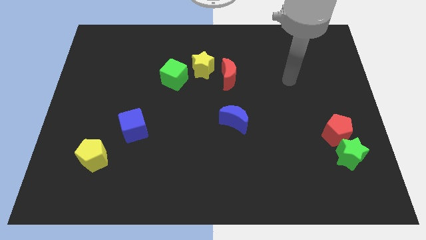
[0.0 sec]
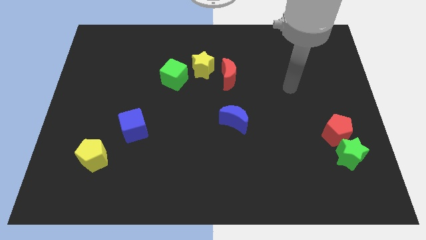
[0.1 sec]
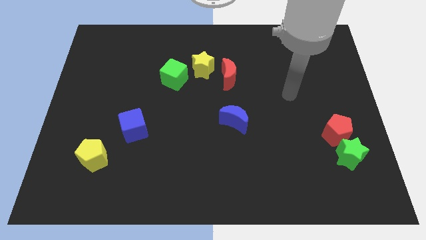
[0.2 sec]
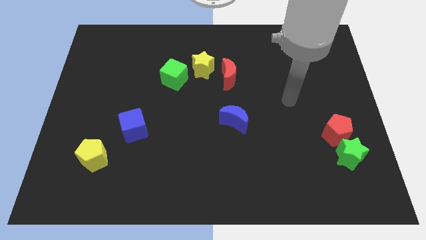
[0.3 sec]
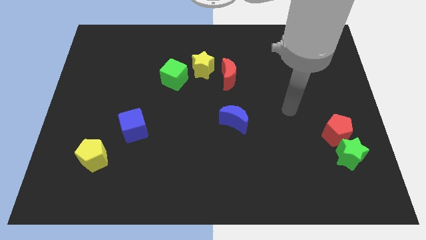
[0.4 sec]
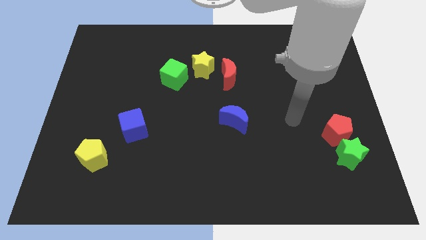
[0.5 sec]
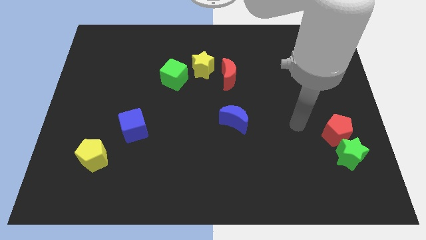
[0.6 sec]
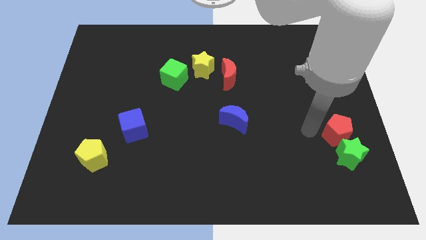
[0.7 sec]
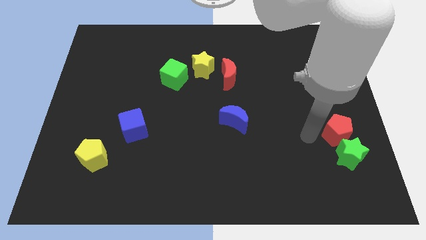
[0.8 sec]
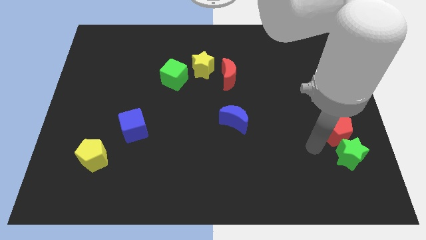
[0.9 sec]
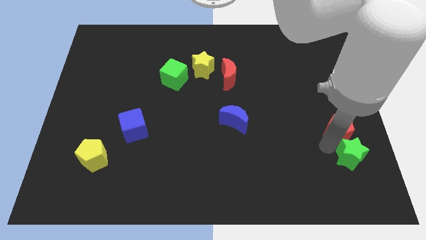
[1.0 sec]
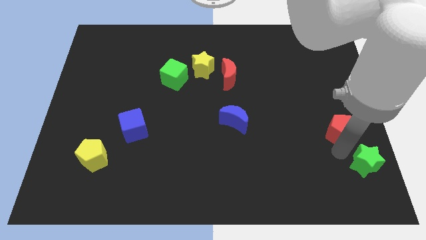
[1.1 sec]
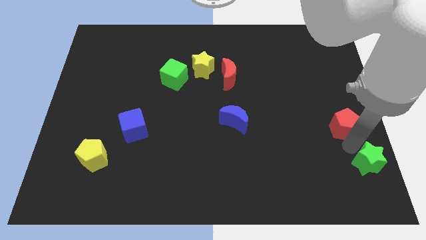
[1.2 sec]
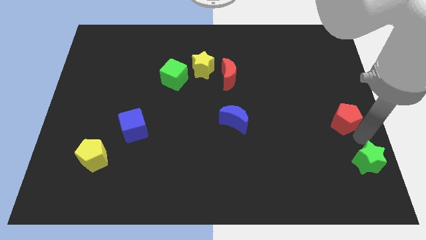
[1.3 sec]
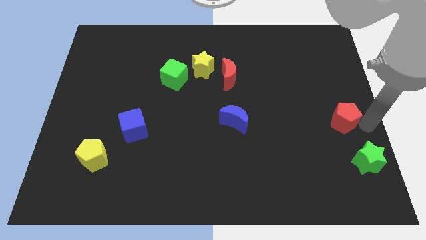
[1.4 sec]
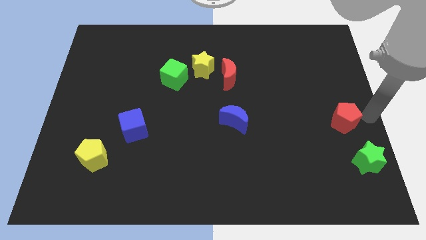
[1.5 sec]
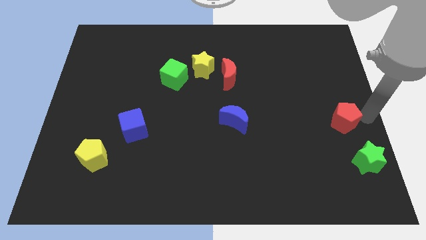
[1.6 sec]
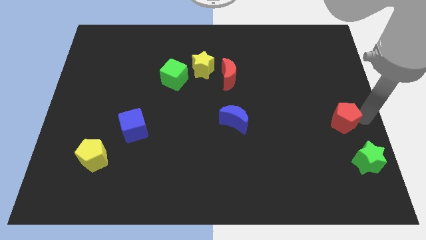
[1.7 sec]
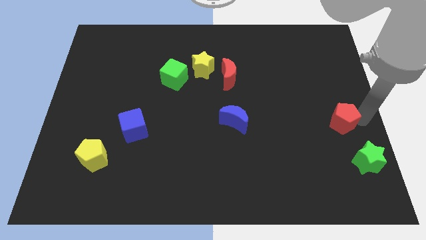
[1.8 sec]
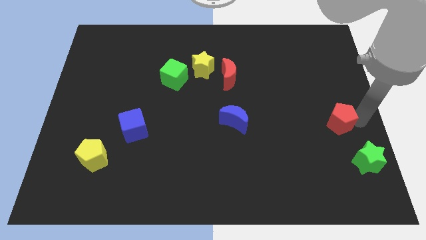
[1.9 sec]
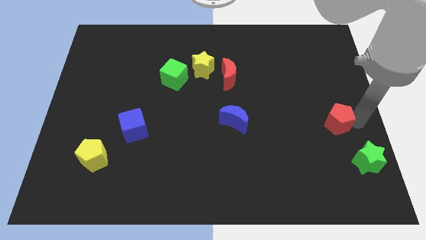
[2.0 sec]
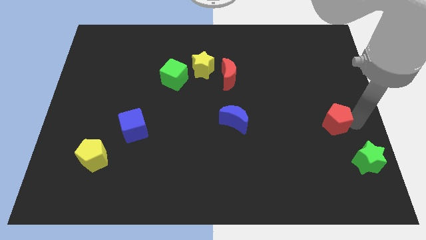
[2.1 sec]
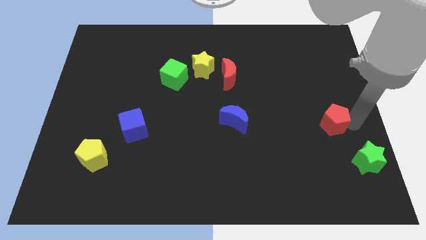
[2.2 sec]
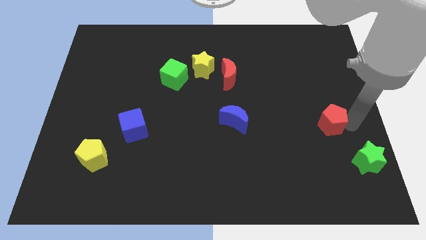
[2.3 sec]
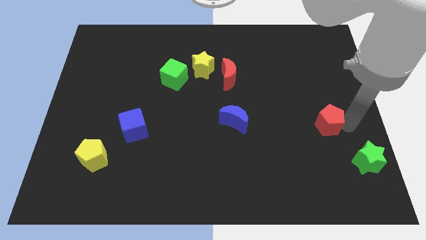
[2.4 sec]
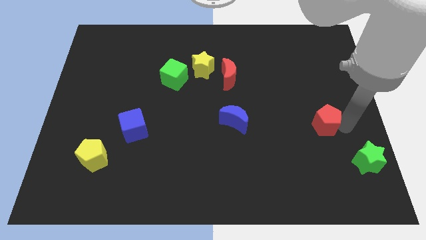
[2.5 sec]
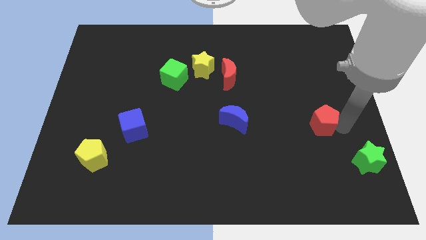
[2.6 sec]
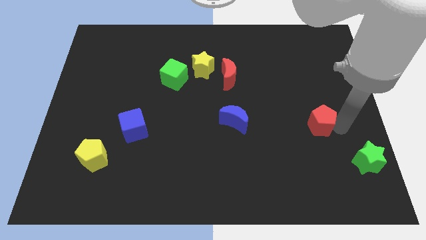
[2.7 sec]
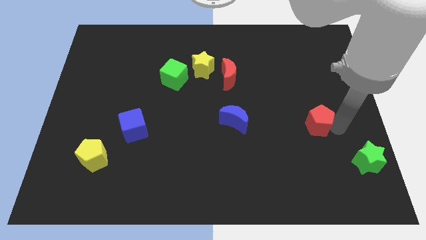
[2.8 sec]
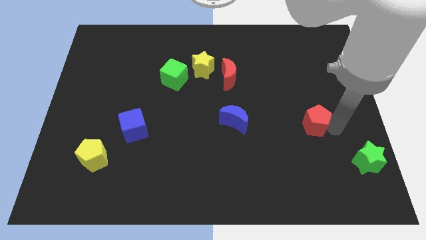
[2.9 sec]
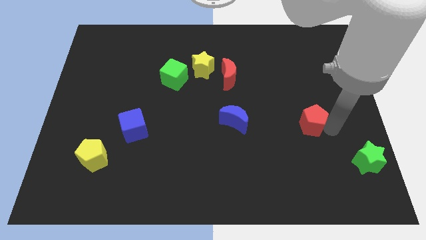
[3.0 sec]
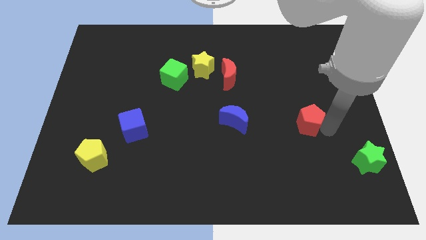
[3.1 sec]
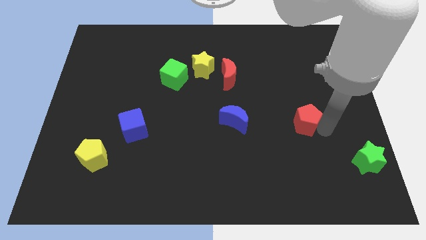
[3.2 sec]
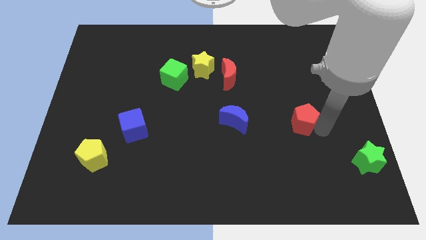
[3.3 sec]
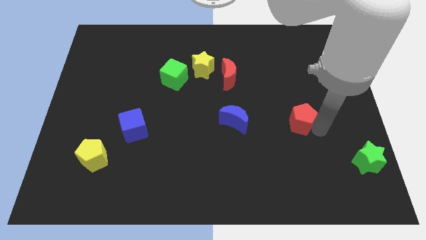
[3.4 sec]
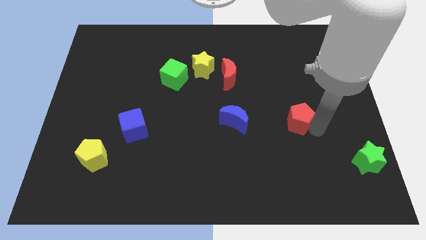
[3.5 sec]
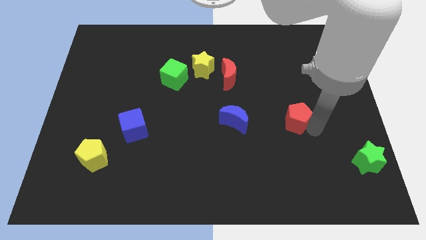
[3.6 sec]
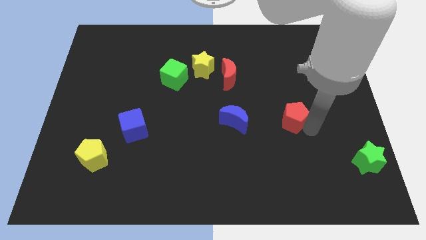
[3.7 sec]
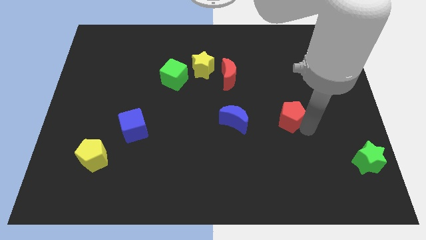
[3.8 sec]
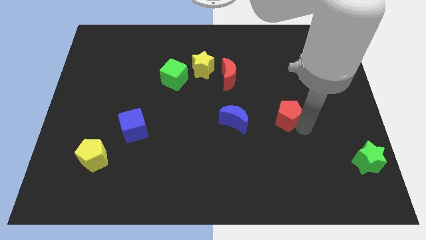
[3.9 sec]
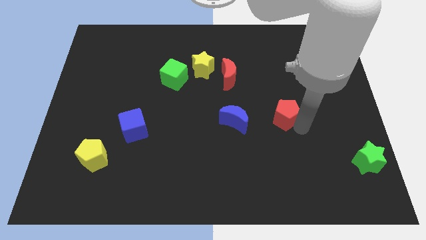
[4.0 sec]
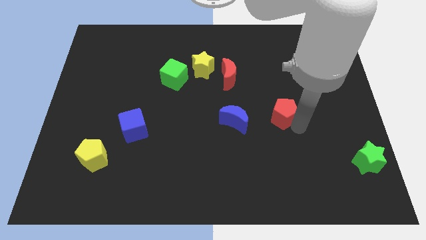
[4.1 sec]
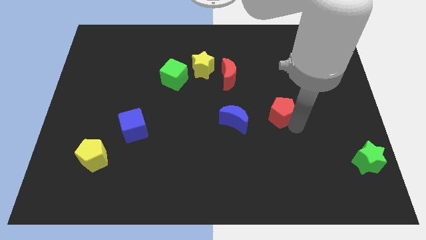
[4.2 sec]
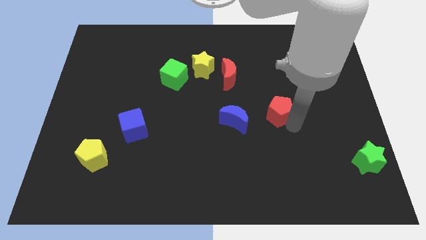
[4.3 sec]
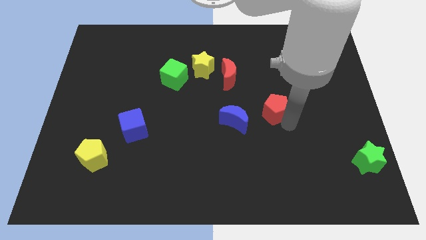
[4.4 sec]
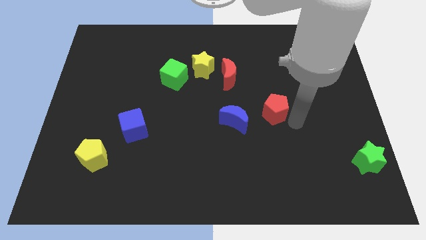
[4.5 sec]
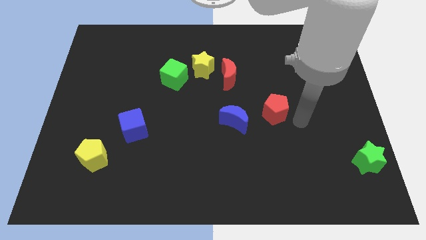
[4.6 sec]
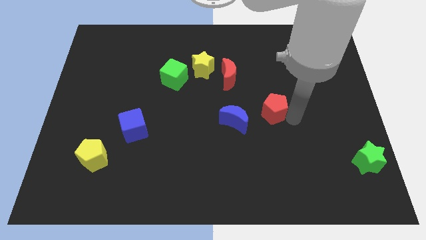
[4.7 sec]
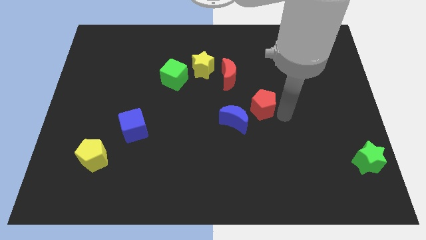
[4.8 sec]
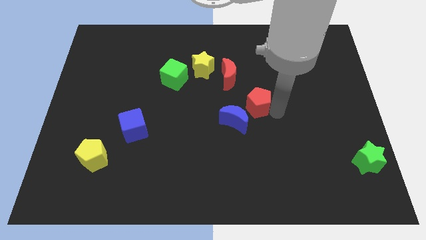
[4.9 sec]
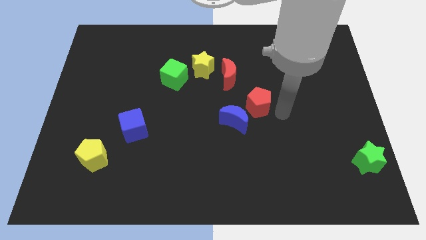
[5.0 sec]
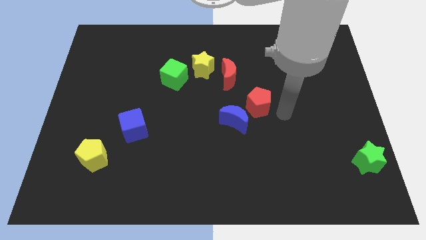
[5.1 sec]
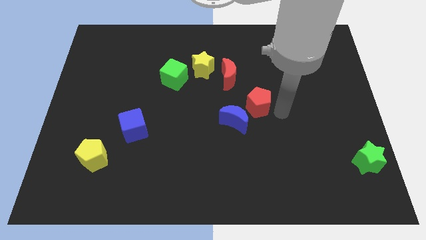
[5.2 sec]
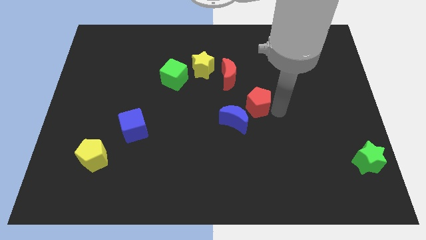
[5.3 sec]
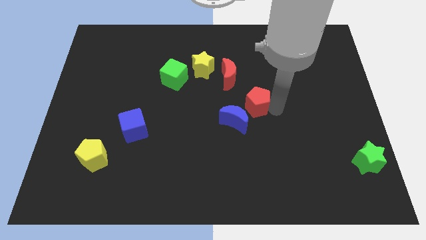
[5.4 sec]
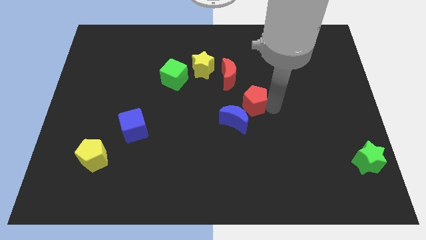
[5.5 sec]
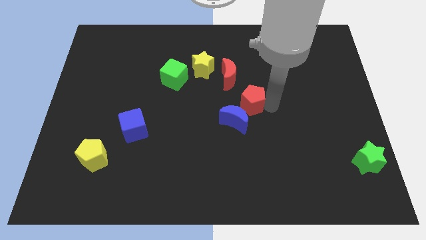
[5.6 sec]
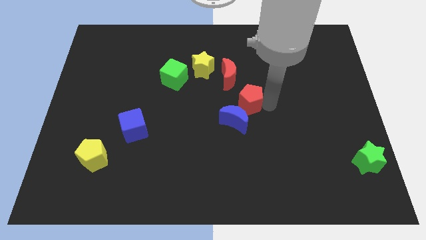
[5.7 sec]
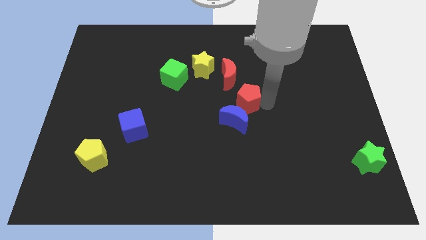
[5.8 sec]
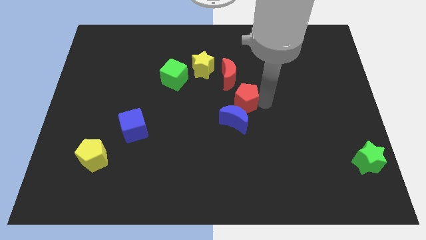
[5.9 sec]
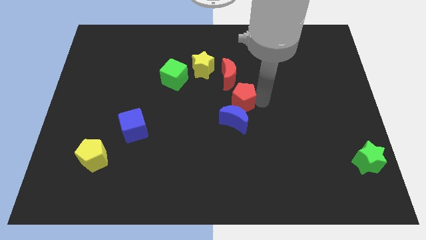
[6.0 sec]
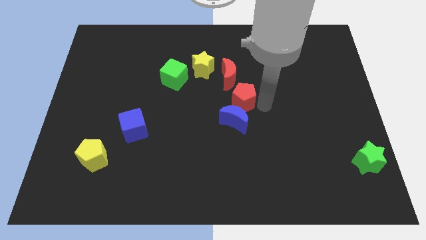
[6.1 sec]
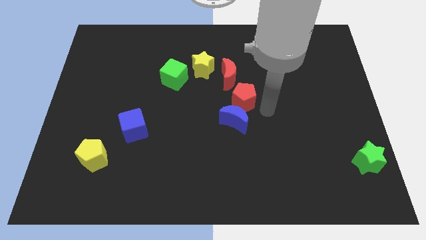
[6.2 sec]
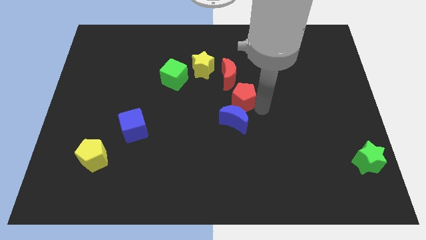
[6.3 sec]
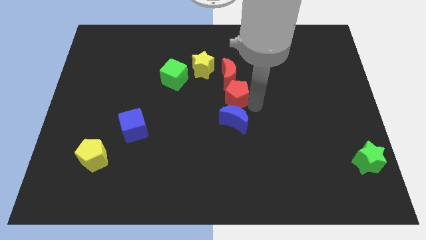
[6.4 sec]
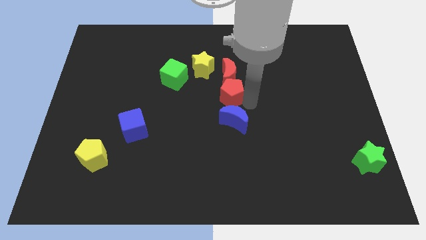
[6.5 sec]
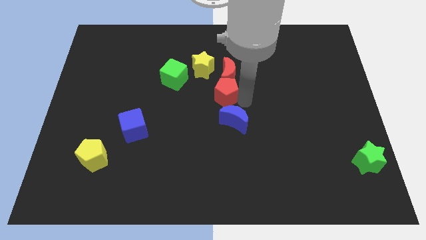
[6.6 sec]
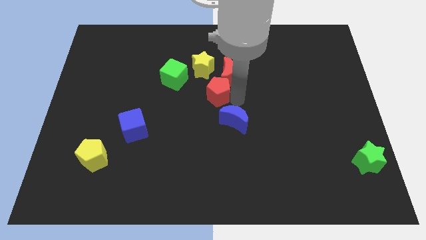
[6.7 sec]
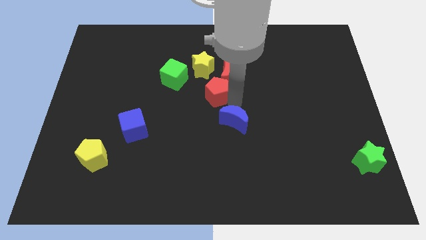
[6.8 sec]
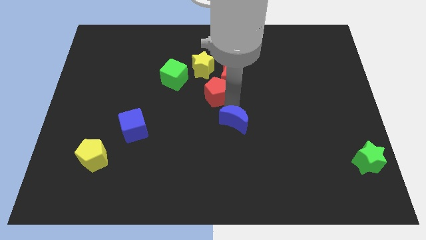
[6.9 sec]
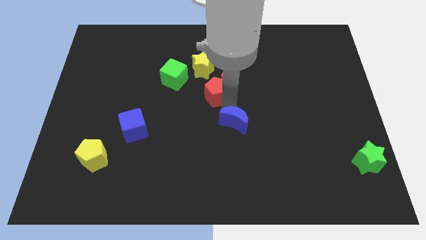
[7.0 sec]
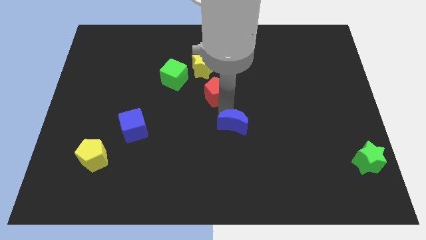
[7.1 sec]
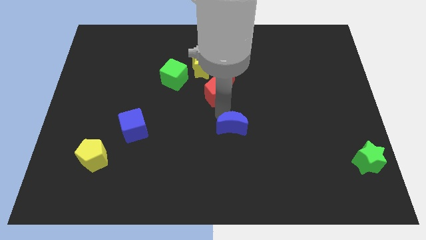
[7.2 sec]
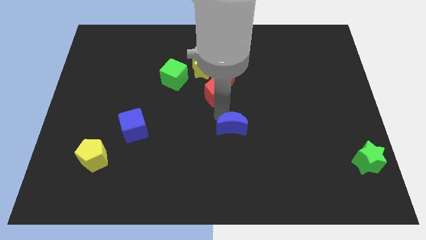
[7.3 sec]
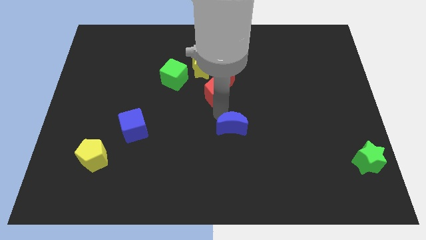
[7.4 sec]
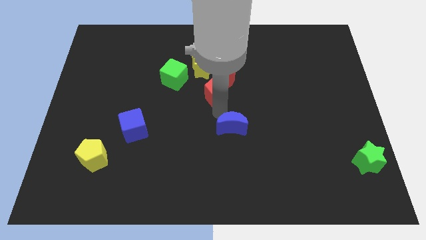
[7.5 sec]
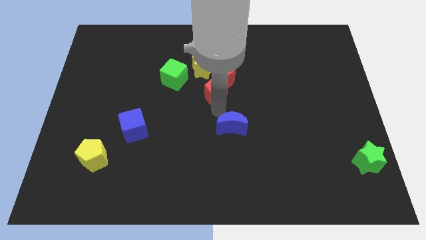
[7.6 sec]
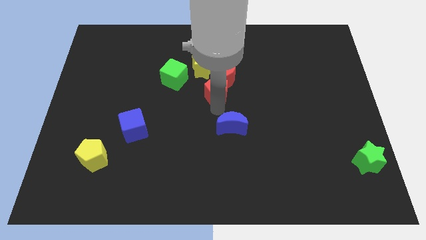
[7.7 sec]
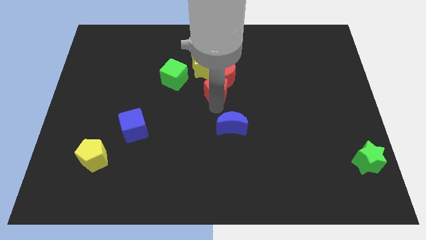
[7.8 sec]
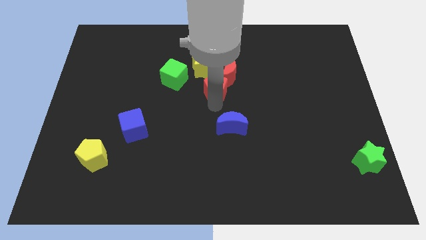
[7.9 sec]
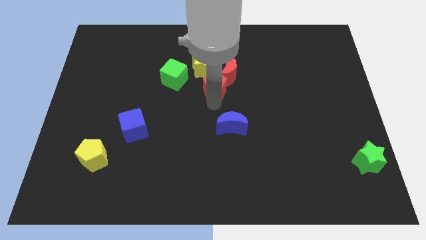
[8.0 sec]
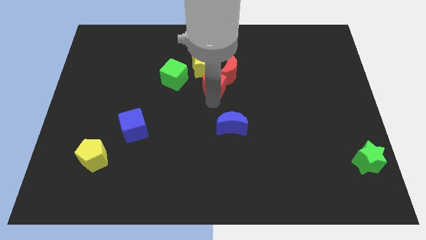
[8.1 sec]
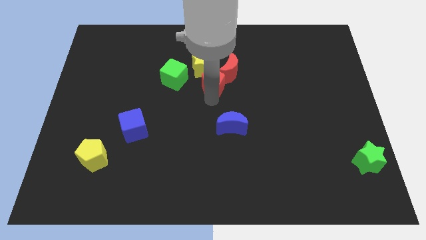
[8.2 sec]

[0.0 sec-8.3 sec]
move the red pentagon to the yellow star
